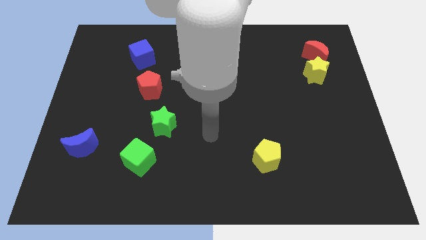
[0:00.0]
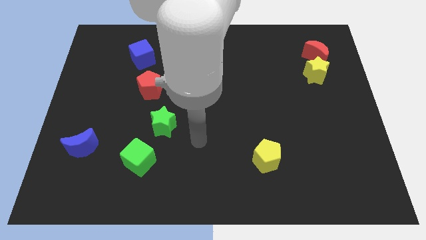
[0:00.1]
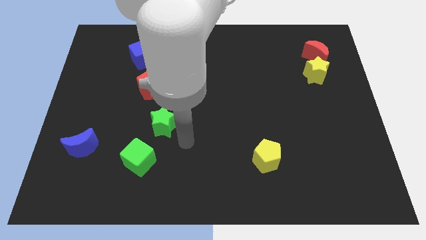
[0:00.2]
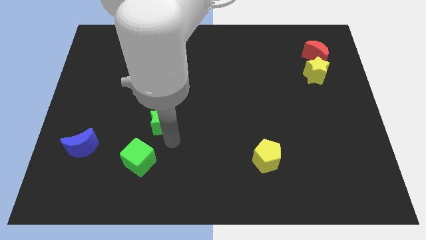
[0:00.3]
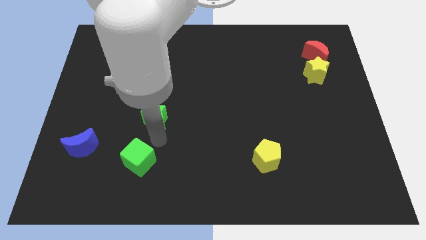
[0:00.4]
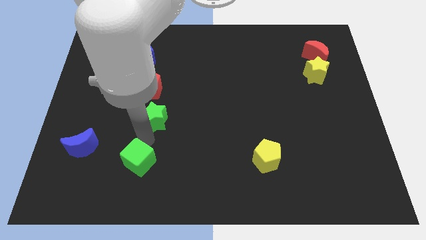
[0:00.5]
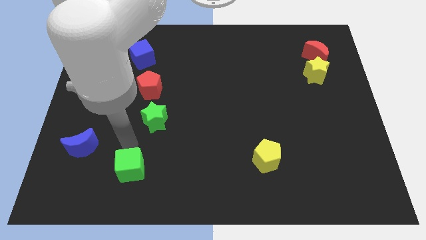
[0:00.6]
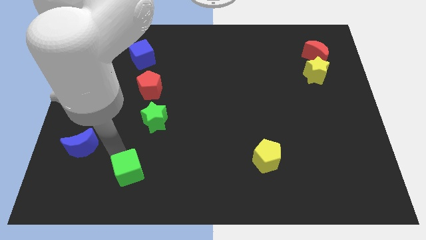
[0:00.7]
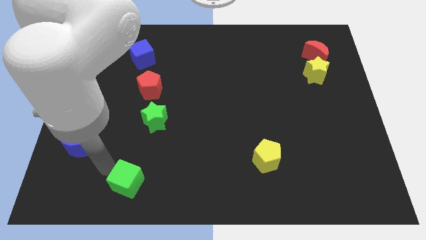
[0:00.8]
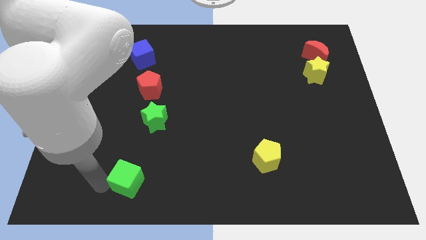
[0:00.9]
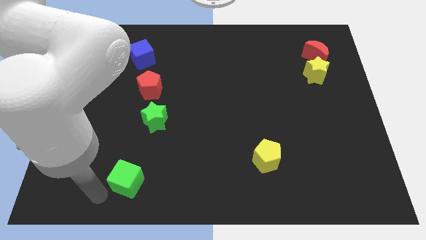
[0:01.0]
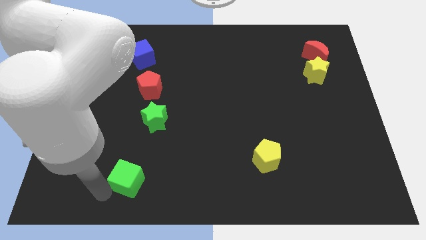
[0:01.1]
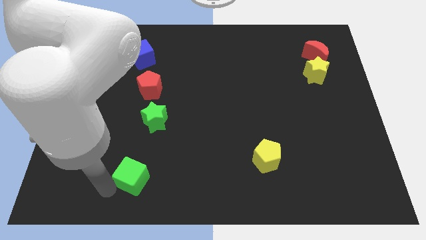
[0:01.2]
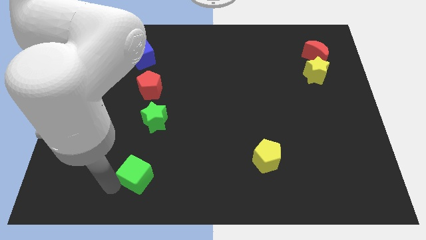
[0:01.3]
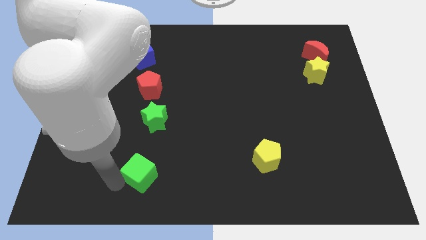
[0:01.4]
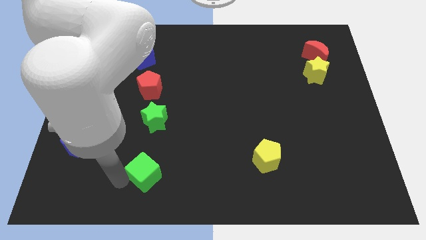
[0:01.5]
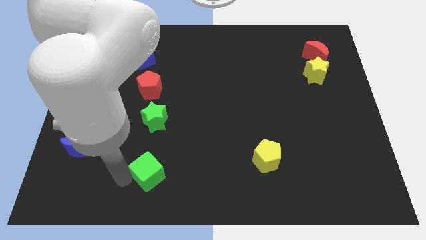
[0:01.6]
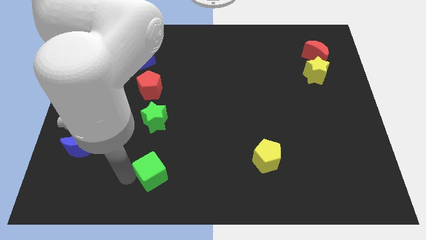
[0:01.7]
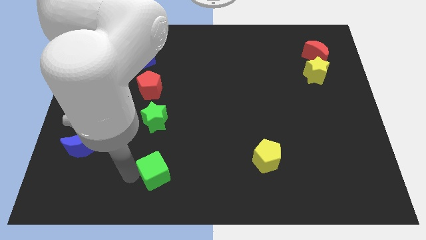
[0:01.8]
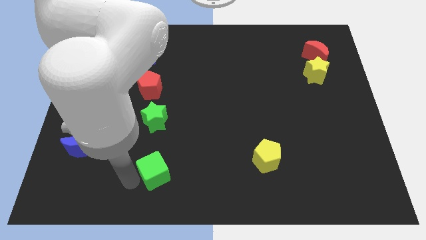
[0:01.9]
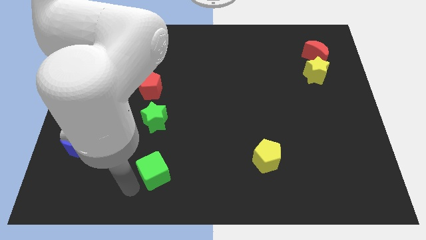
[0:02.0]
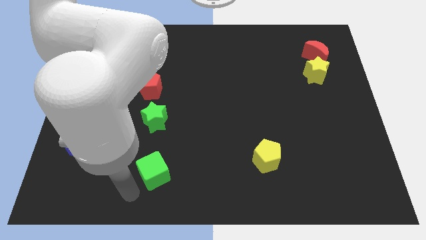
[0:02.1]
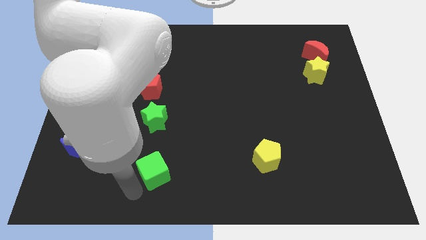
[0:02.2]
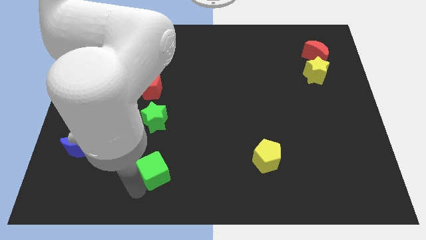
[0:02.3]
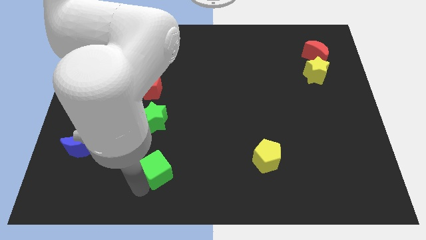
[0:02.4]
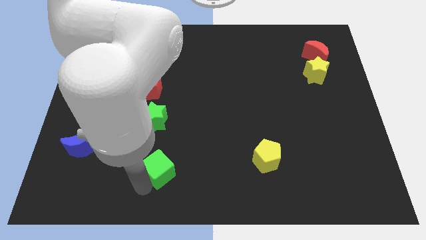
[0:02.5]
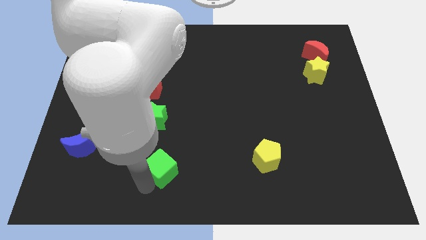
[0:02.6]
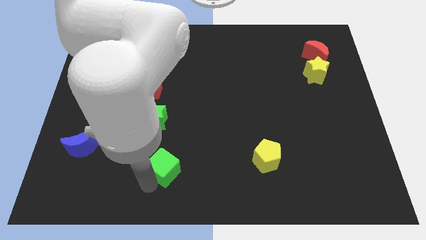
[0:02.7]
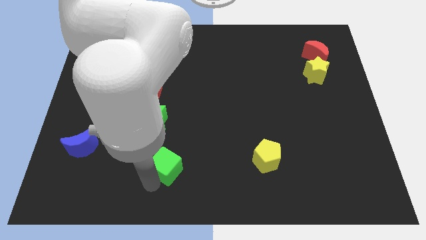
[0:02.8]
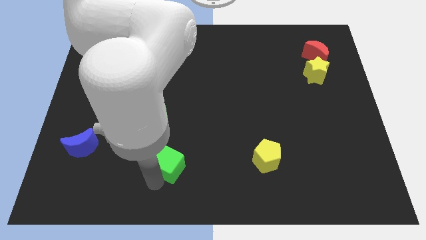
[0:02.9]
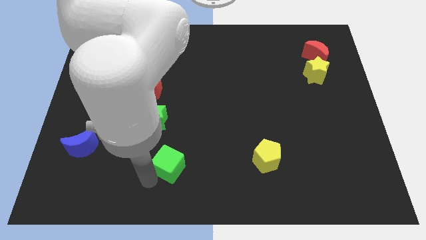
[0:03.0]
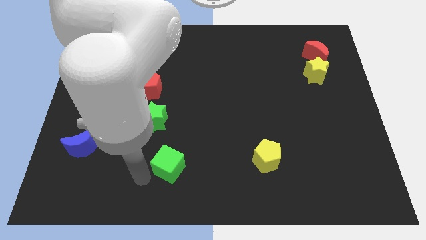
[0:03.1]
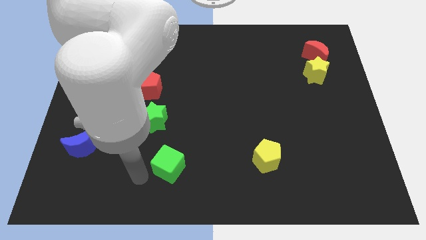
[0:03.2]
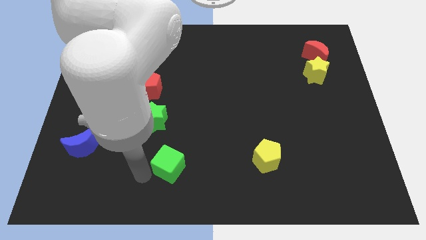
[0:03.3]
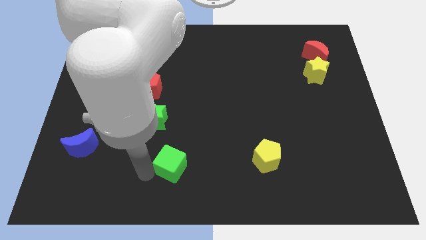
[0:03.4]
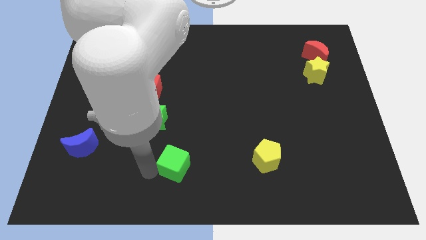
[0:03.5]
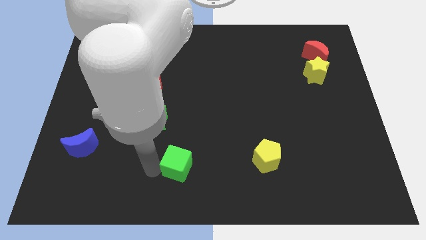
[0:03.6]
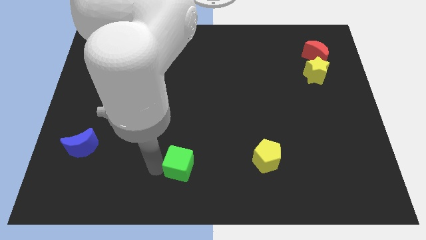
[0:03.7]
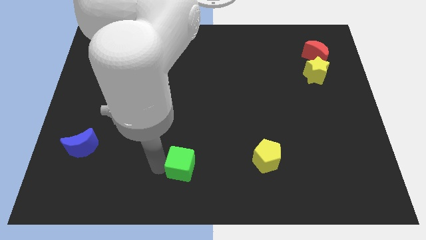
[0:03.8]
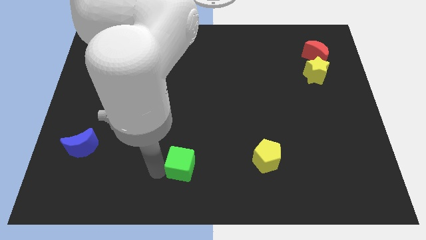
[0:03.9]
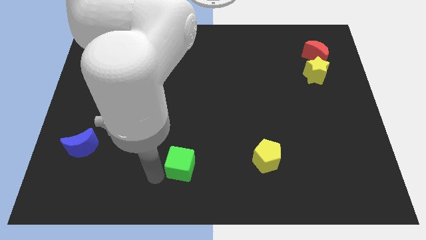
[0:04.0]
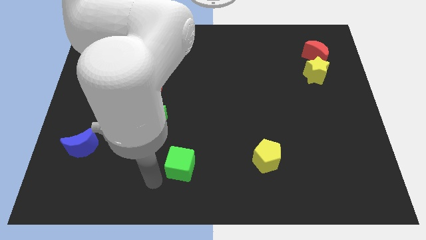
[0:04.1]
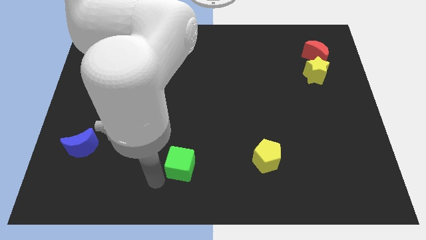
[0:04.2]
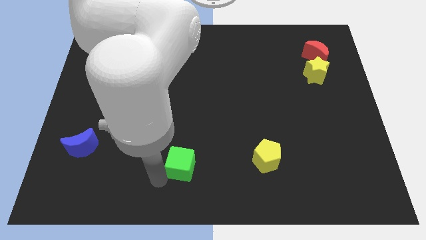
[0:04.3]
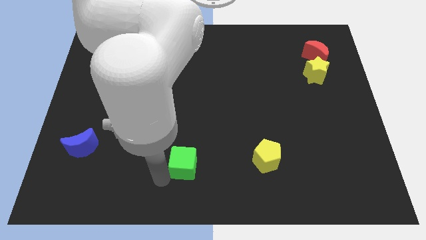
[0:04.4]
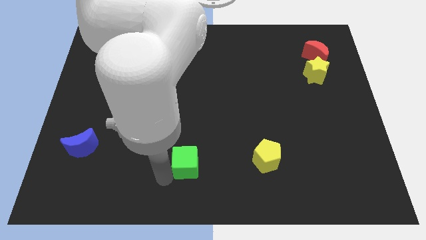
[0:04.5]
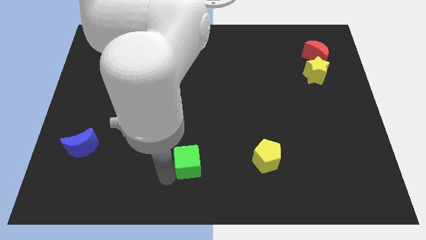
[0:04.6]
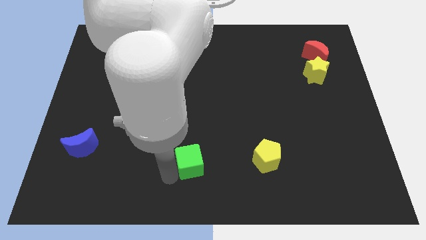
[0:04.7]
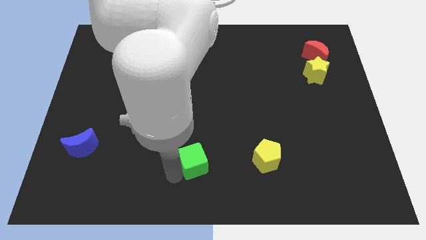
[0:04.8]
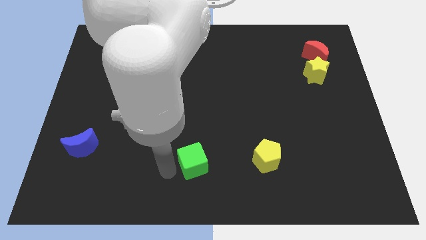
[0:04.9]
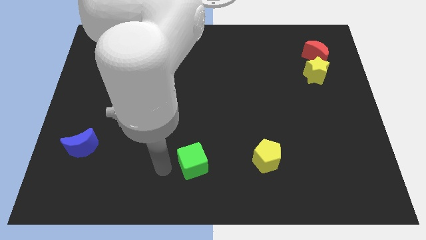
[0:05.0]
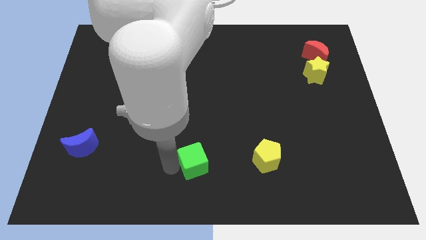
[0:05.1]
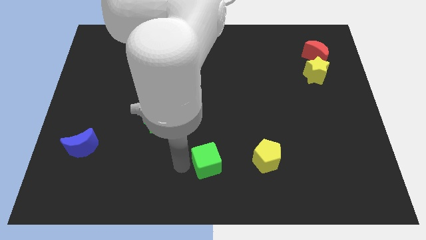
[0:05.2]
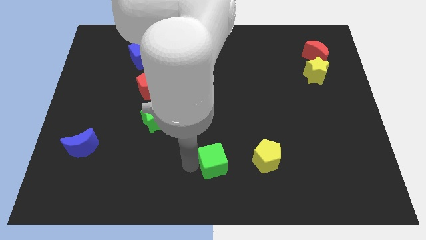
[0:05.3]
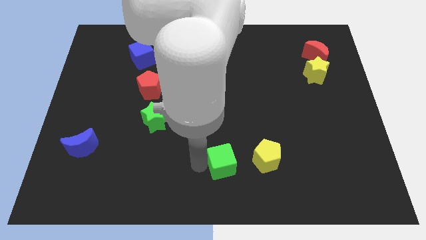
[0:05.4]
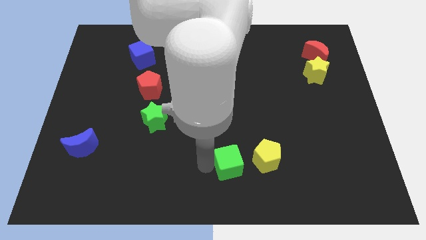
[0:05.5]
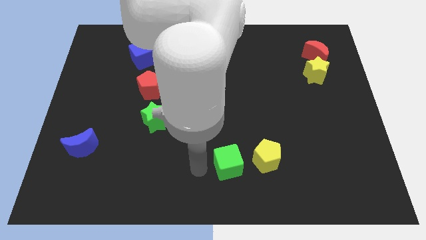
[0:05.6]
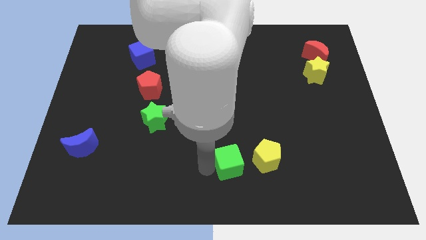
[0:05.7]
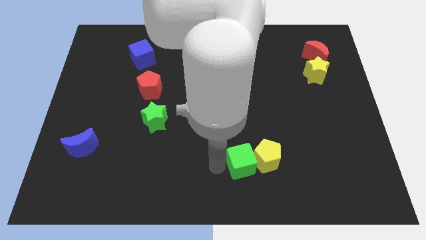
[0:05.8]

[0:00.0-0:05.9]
push the green cube to the yellow pentagon

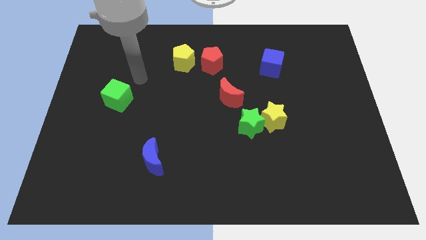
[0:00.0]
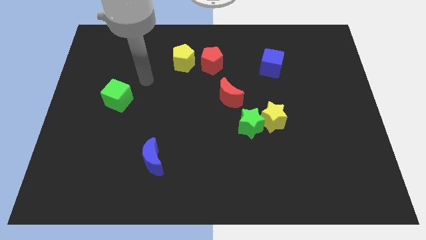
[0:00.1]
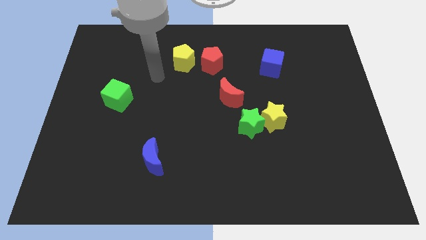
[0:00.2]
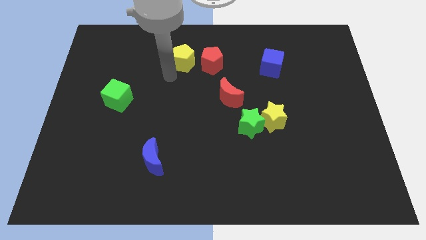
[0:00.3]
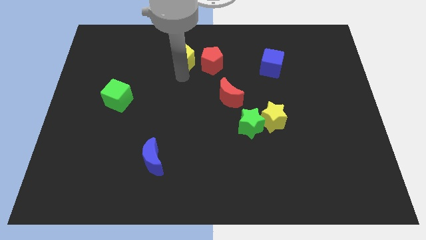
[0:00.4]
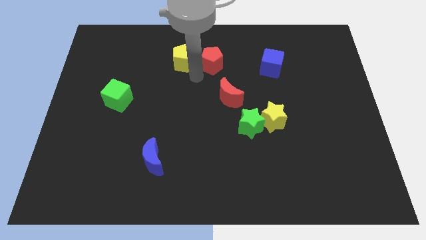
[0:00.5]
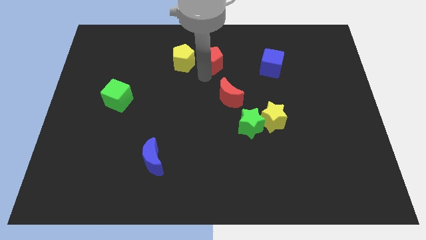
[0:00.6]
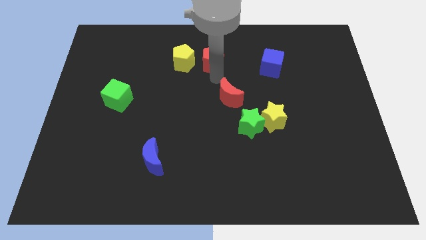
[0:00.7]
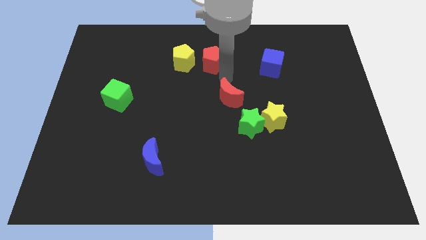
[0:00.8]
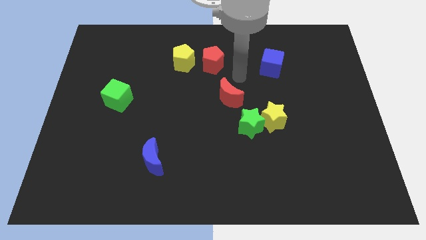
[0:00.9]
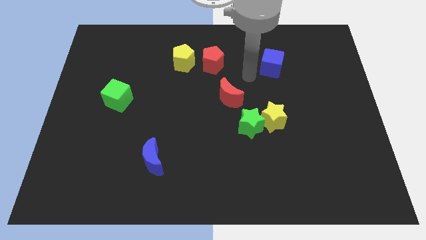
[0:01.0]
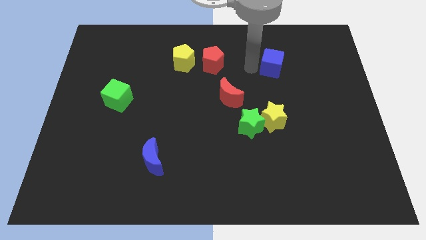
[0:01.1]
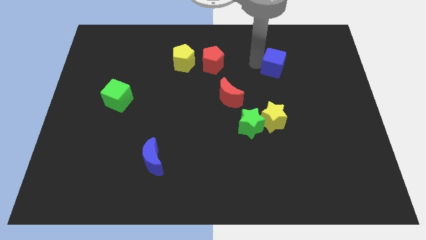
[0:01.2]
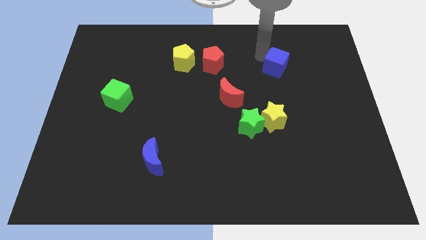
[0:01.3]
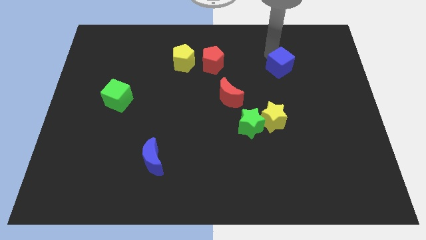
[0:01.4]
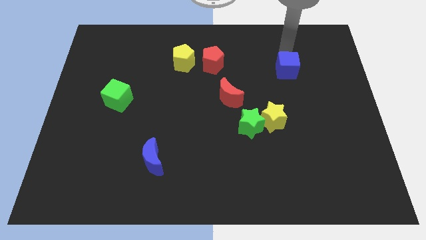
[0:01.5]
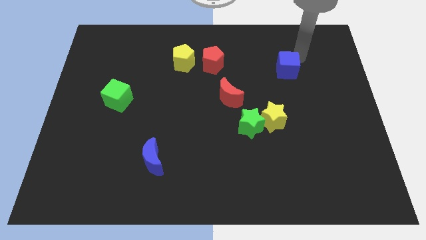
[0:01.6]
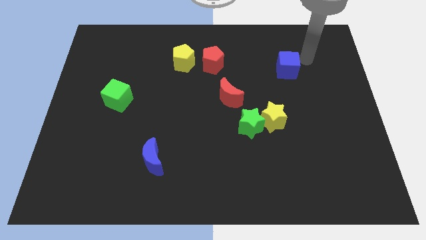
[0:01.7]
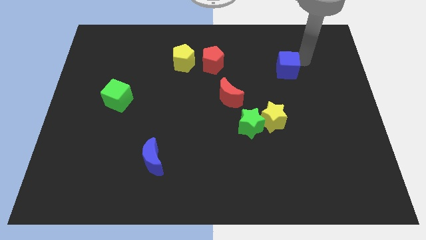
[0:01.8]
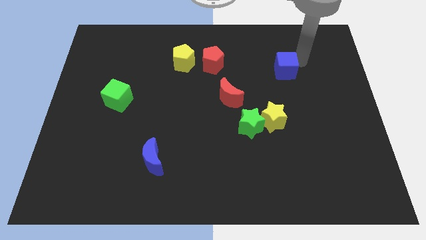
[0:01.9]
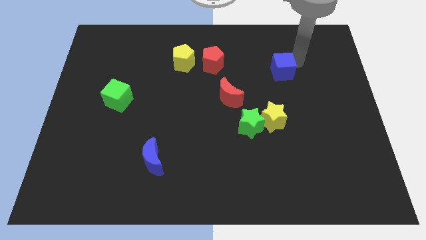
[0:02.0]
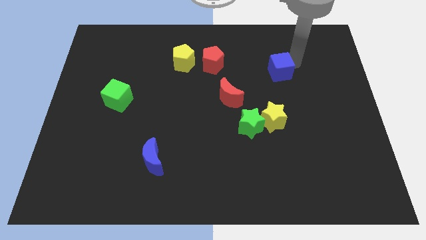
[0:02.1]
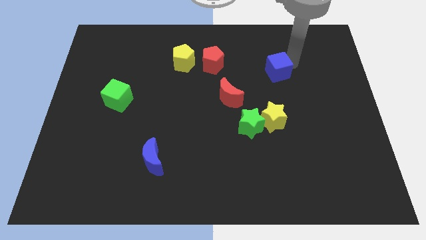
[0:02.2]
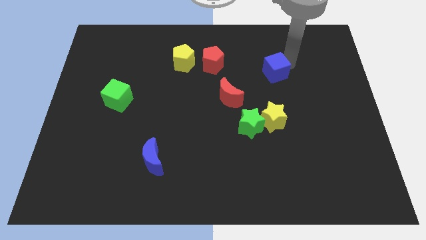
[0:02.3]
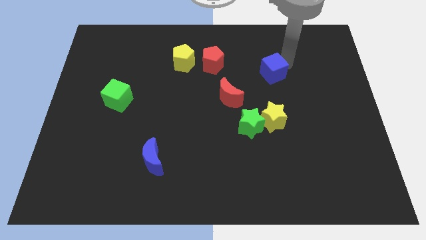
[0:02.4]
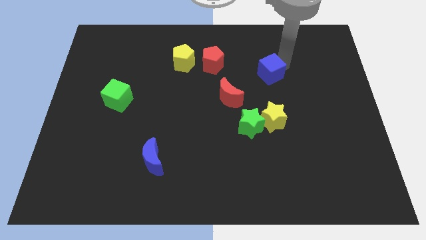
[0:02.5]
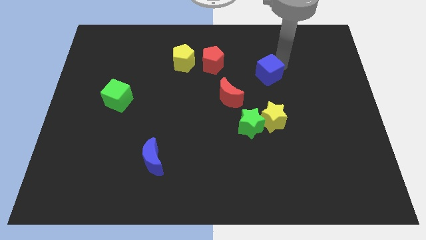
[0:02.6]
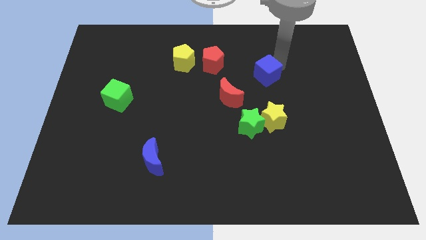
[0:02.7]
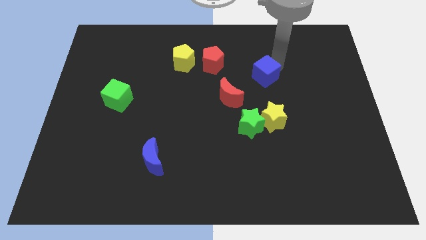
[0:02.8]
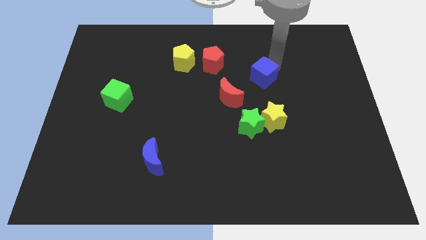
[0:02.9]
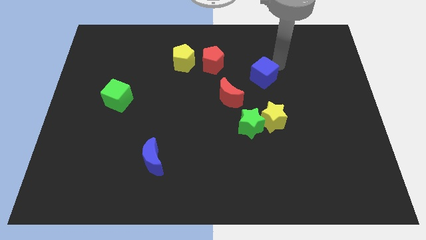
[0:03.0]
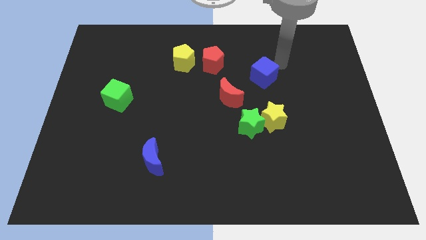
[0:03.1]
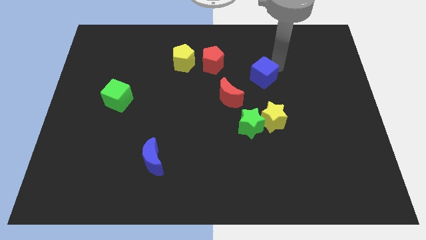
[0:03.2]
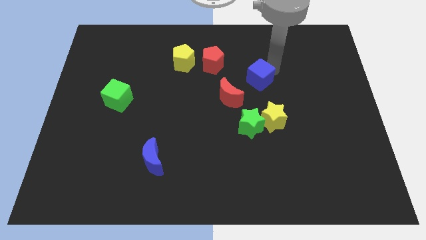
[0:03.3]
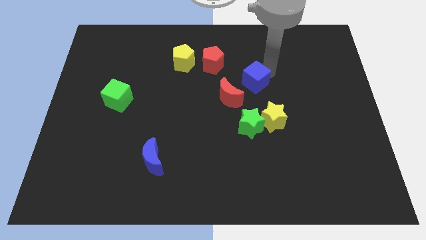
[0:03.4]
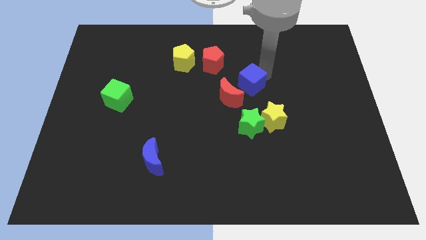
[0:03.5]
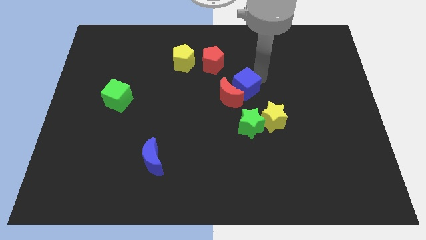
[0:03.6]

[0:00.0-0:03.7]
put the blue cube to the red moon
